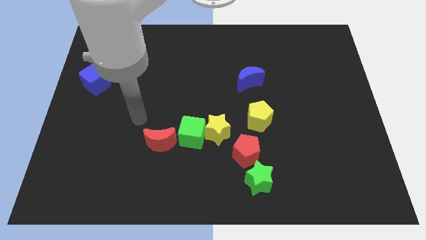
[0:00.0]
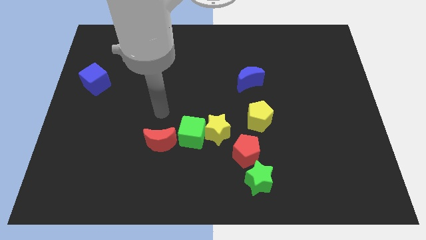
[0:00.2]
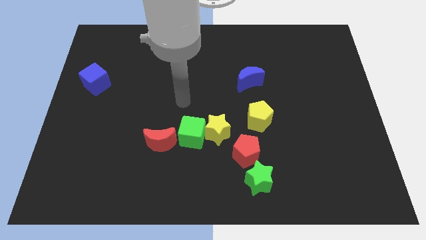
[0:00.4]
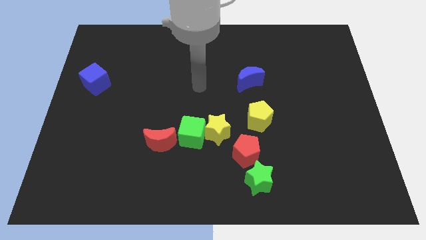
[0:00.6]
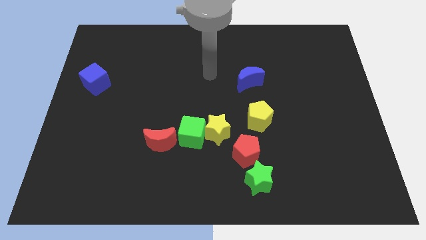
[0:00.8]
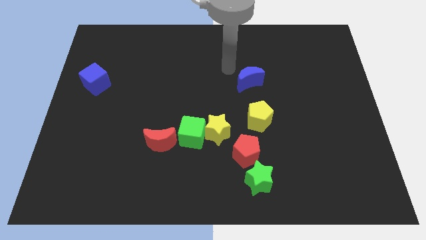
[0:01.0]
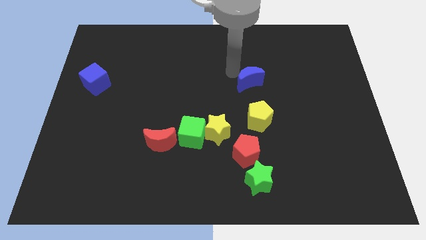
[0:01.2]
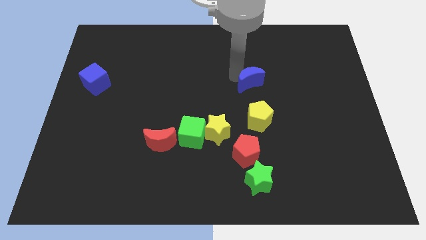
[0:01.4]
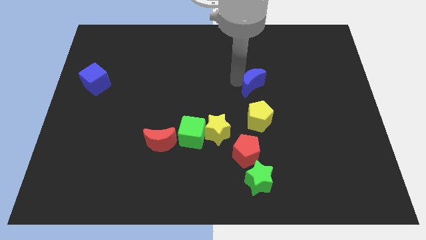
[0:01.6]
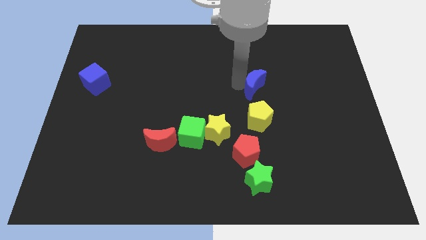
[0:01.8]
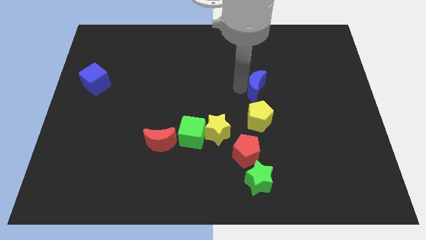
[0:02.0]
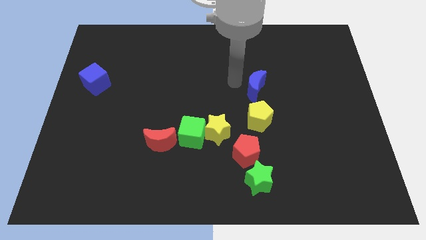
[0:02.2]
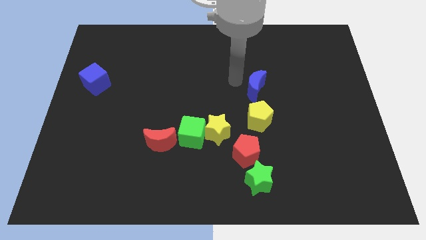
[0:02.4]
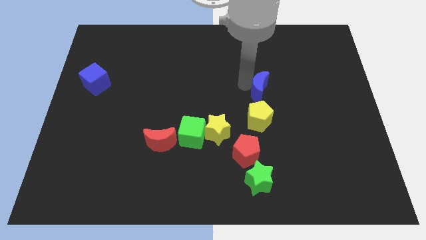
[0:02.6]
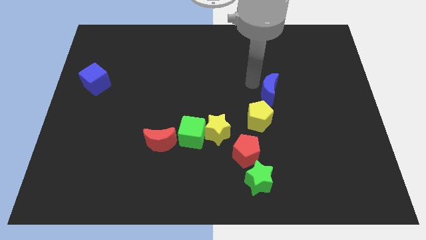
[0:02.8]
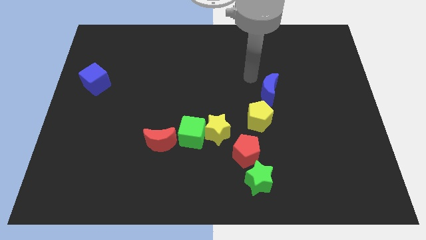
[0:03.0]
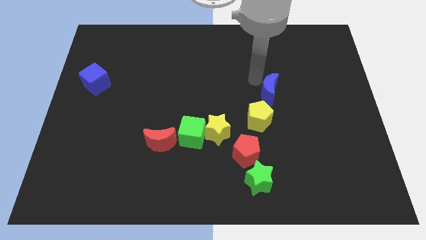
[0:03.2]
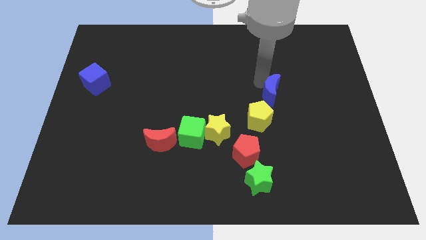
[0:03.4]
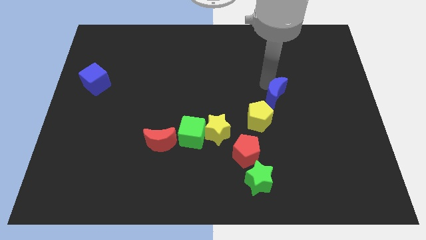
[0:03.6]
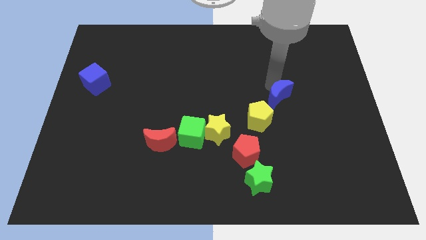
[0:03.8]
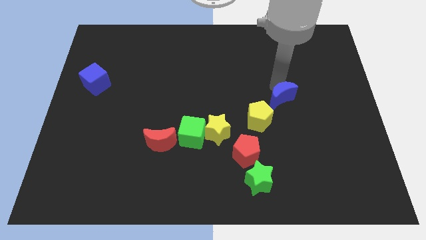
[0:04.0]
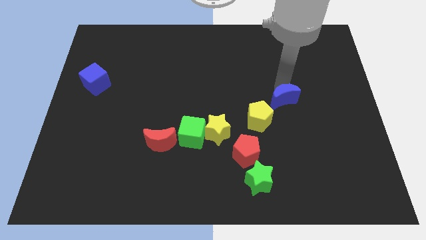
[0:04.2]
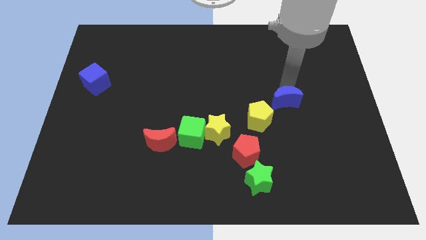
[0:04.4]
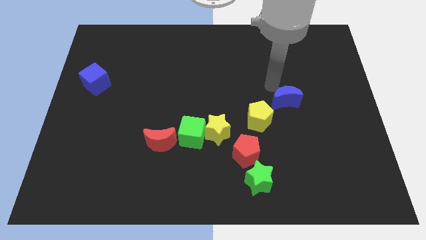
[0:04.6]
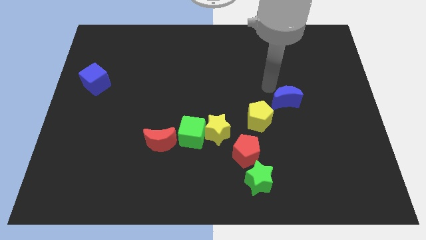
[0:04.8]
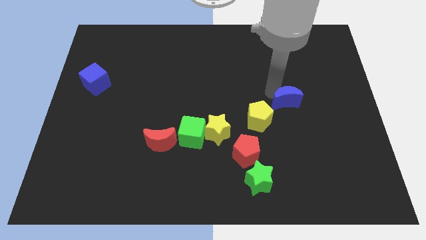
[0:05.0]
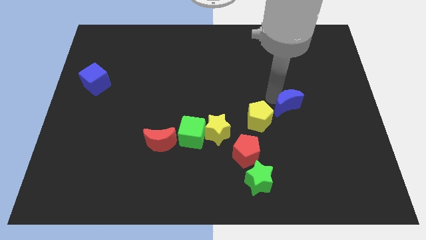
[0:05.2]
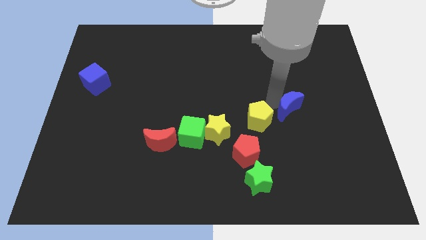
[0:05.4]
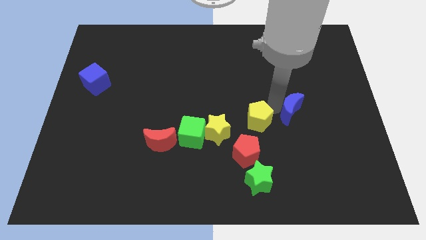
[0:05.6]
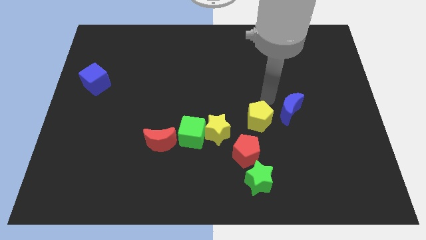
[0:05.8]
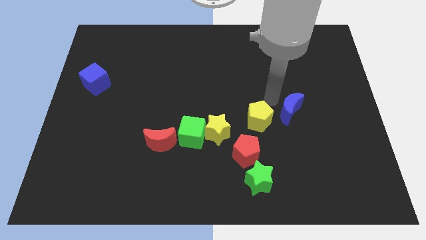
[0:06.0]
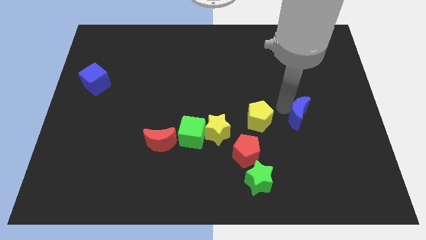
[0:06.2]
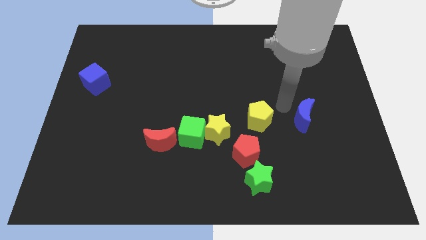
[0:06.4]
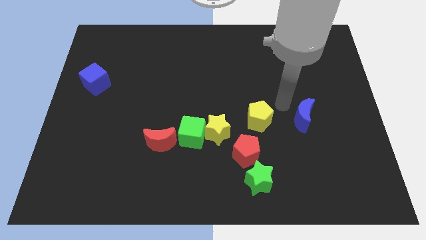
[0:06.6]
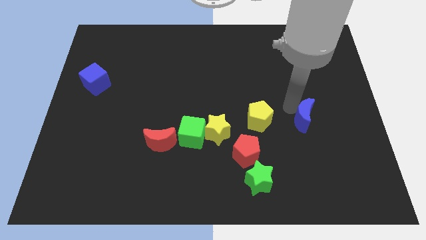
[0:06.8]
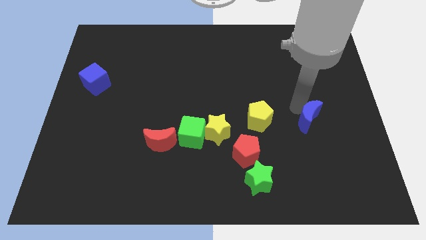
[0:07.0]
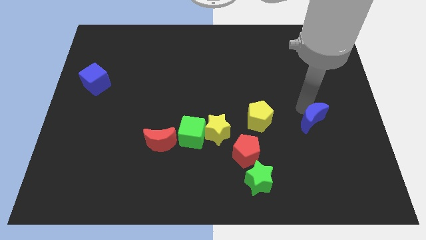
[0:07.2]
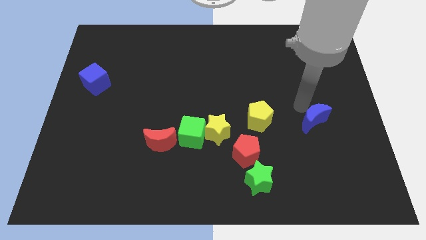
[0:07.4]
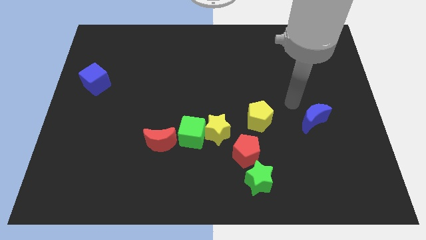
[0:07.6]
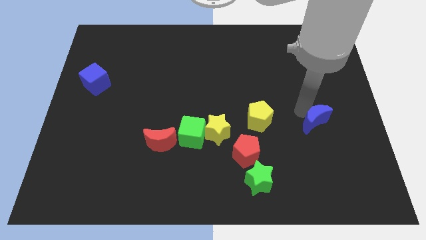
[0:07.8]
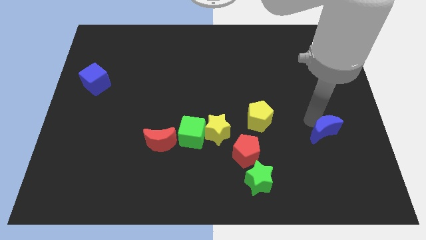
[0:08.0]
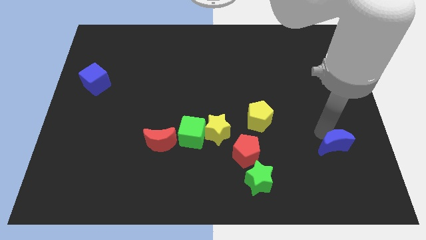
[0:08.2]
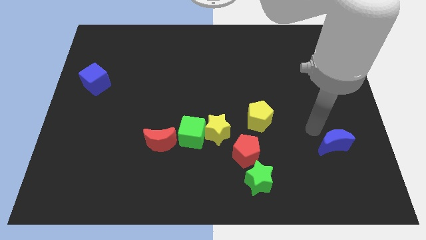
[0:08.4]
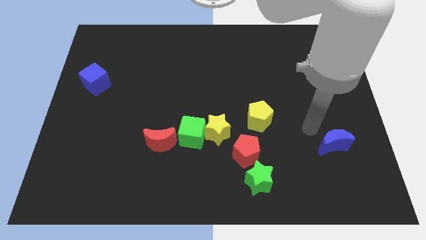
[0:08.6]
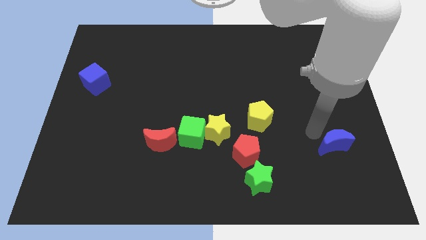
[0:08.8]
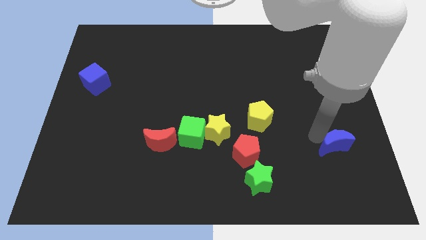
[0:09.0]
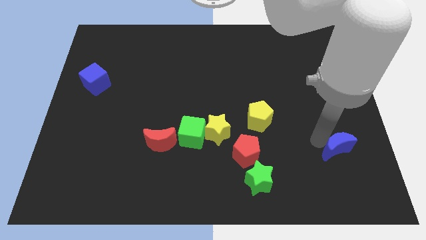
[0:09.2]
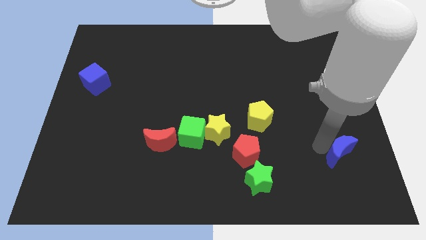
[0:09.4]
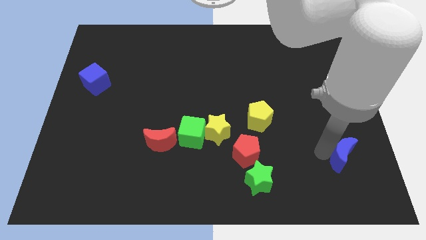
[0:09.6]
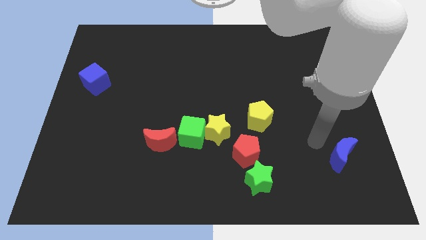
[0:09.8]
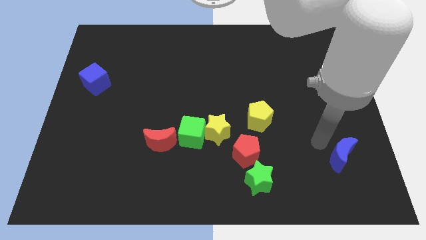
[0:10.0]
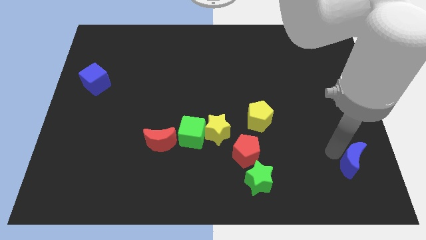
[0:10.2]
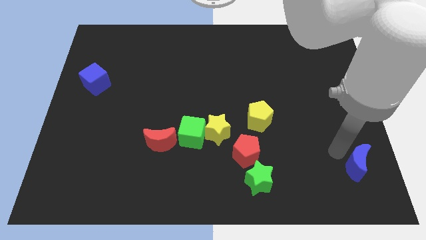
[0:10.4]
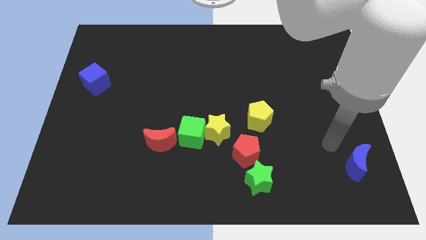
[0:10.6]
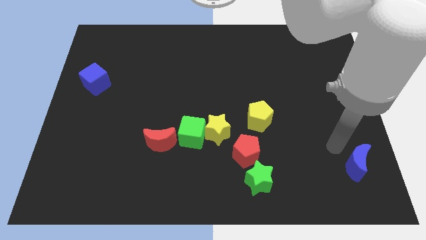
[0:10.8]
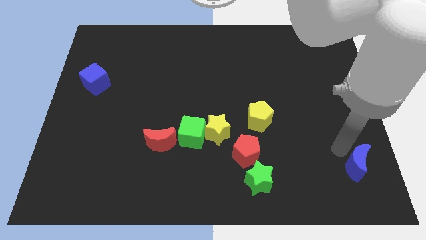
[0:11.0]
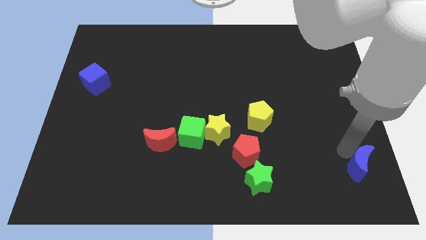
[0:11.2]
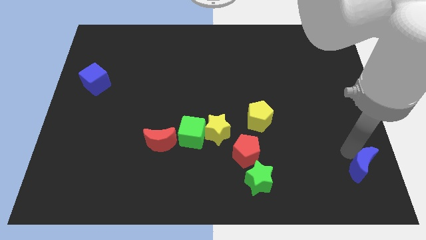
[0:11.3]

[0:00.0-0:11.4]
slide the blue moon to the bottom right

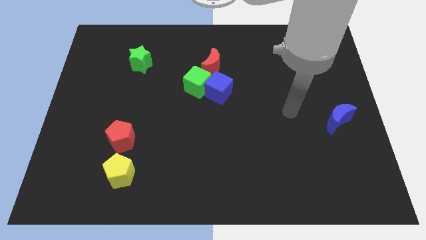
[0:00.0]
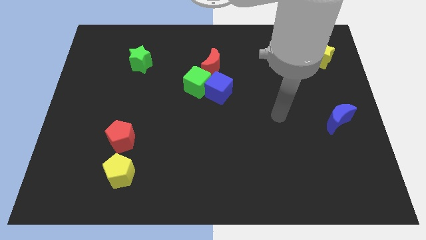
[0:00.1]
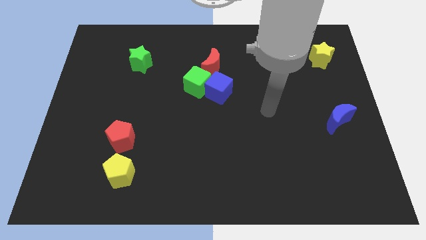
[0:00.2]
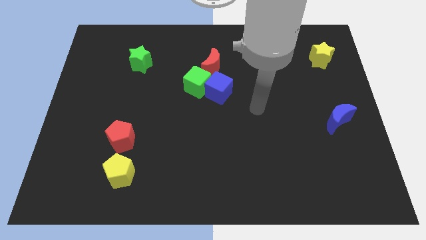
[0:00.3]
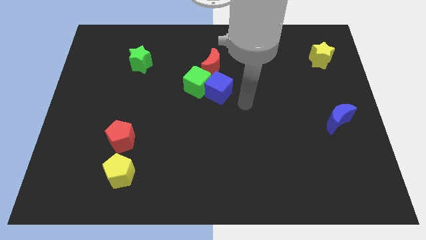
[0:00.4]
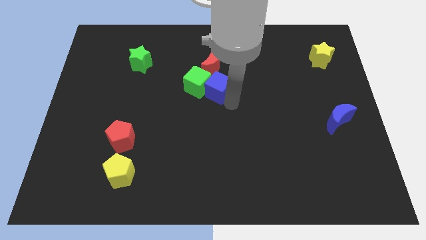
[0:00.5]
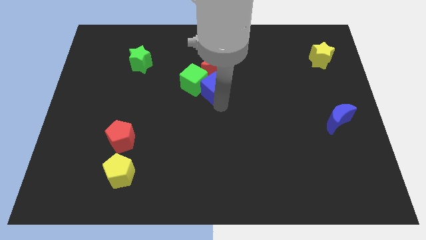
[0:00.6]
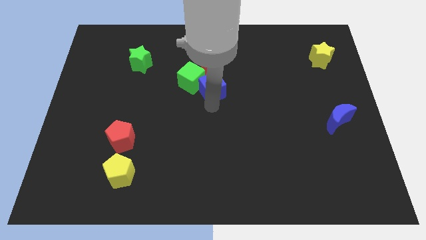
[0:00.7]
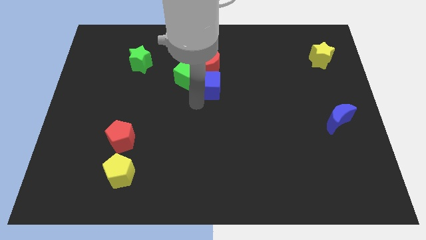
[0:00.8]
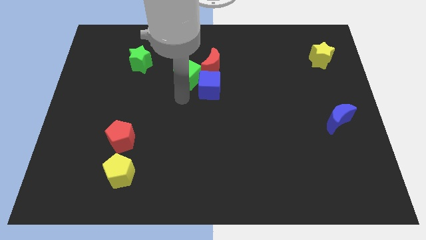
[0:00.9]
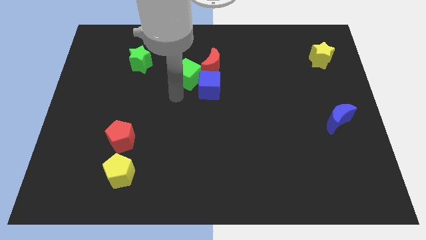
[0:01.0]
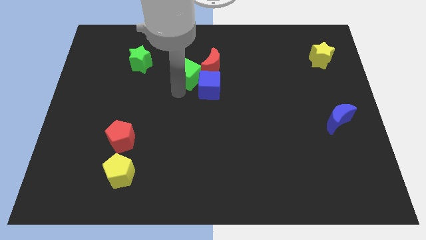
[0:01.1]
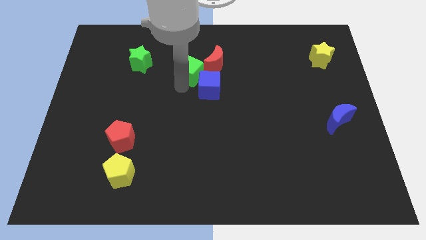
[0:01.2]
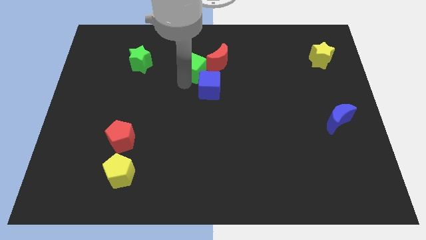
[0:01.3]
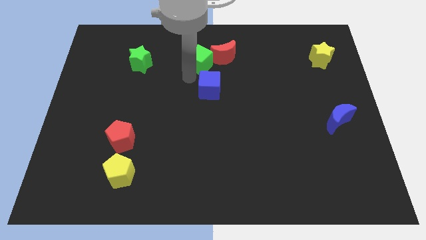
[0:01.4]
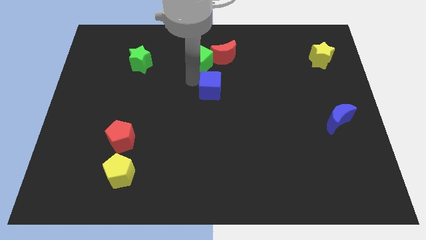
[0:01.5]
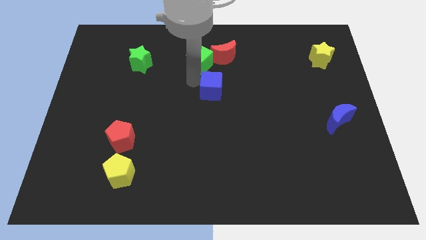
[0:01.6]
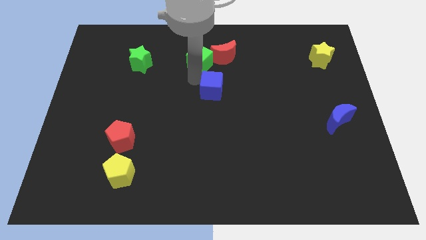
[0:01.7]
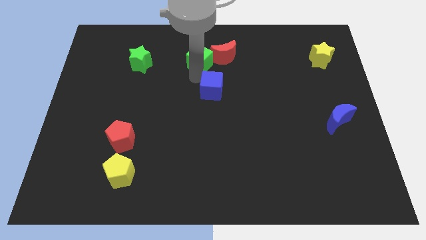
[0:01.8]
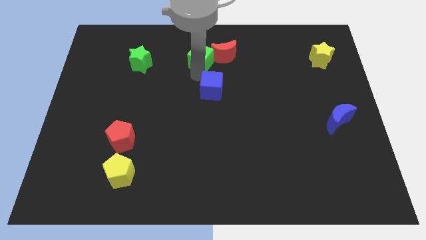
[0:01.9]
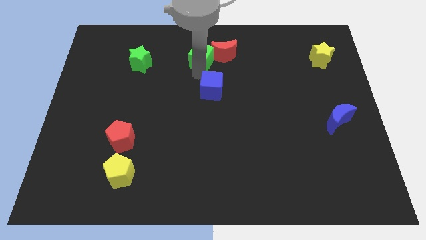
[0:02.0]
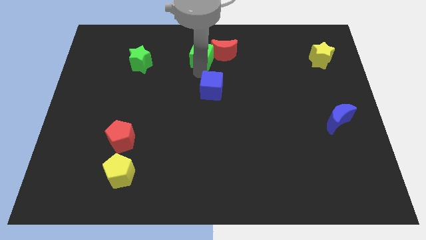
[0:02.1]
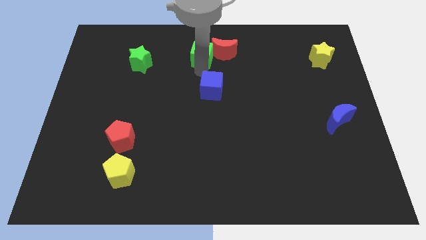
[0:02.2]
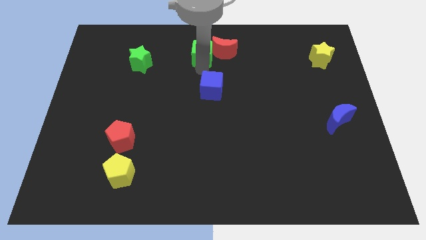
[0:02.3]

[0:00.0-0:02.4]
push the green cube to the top
